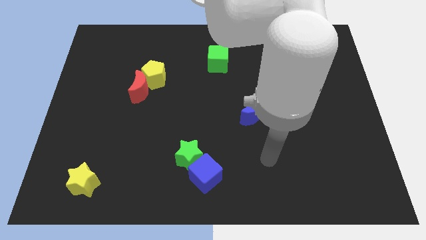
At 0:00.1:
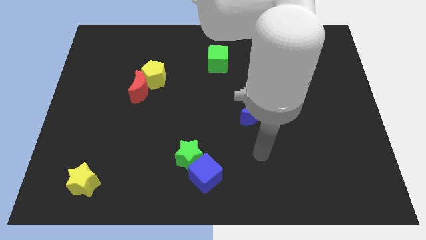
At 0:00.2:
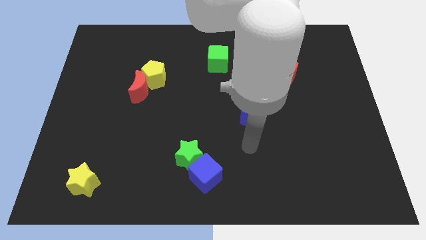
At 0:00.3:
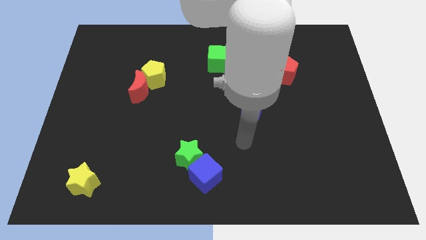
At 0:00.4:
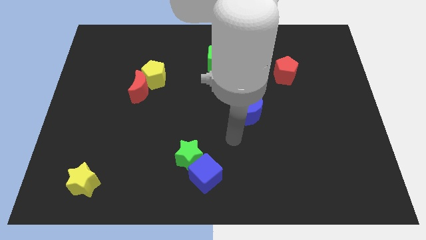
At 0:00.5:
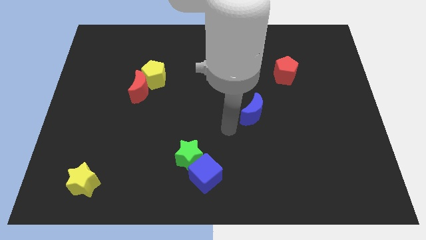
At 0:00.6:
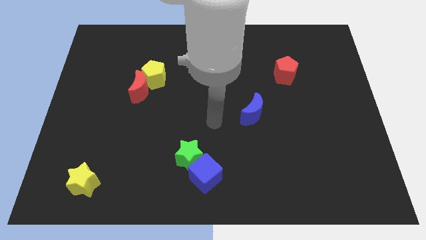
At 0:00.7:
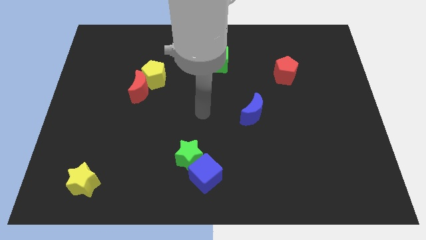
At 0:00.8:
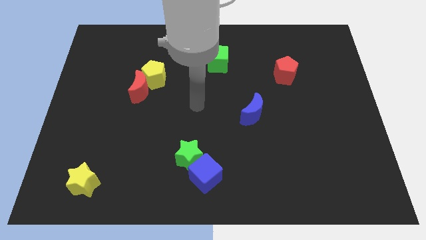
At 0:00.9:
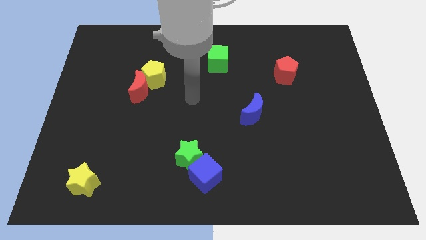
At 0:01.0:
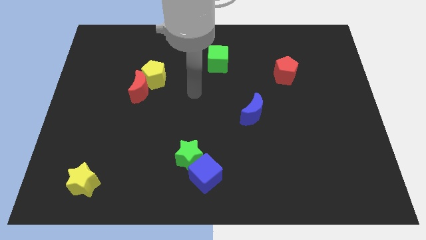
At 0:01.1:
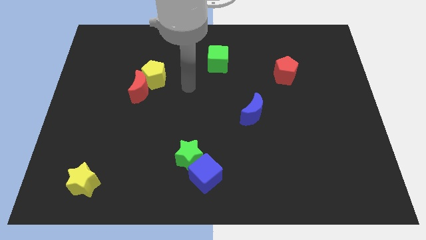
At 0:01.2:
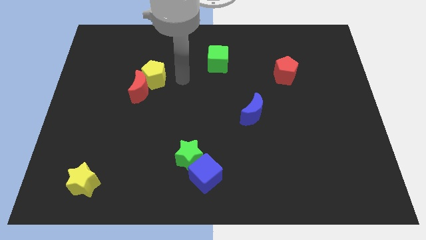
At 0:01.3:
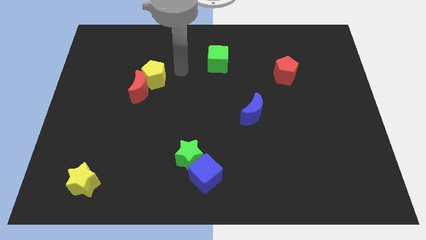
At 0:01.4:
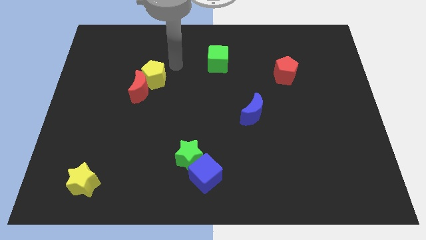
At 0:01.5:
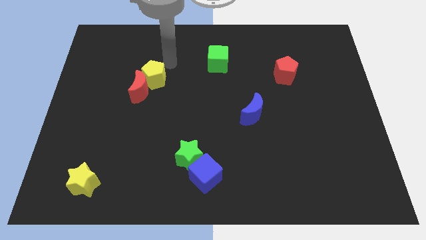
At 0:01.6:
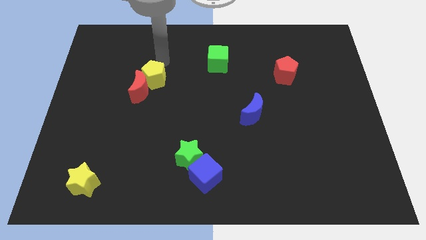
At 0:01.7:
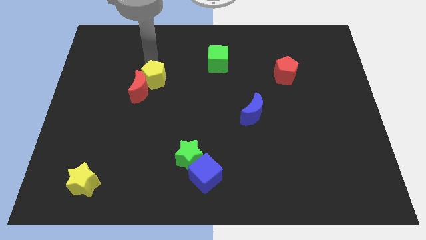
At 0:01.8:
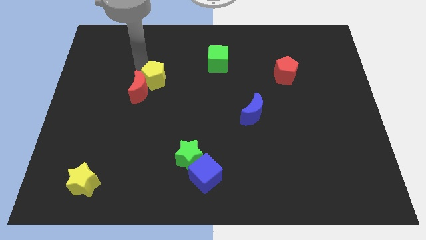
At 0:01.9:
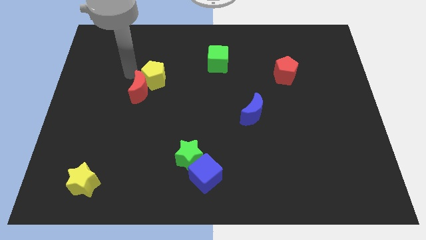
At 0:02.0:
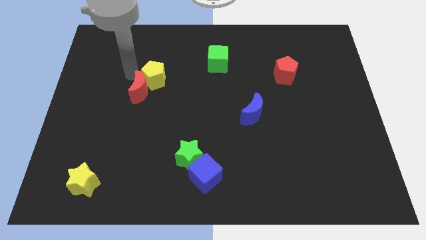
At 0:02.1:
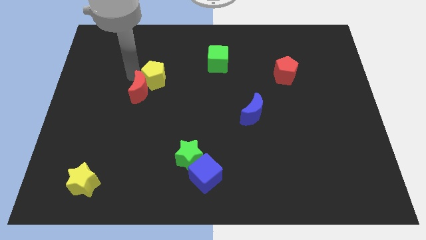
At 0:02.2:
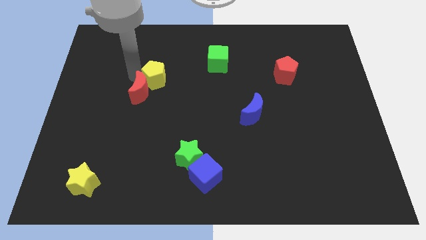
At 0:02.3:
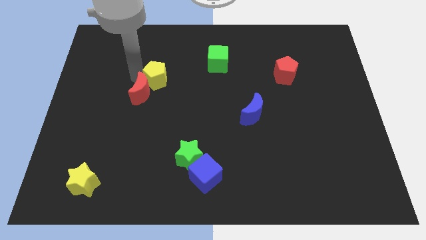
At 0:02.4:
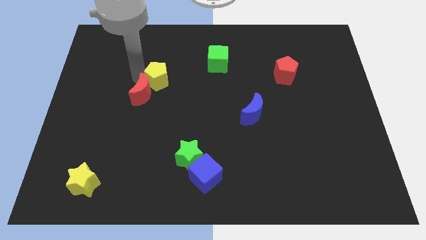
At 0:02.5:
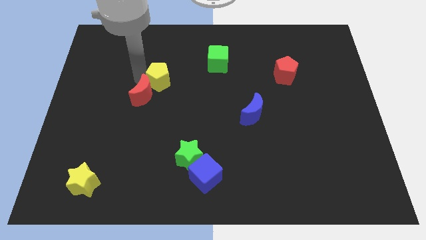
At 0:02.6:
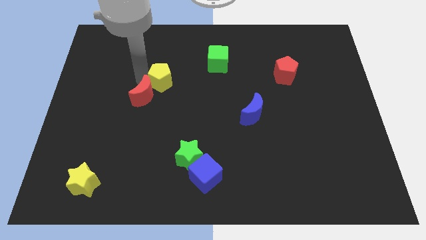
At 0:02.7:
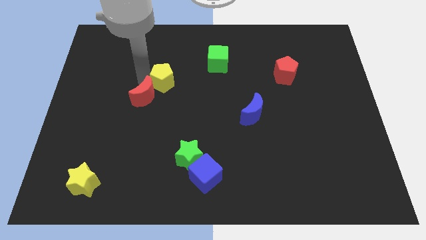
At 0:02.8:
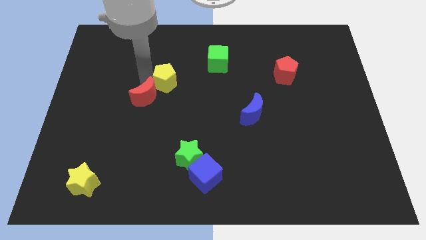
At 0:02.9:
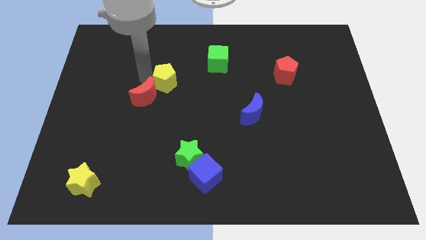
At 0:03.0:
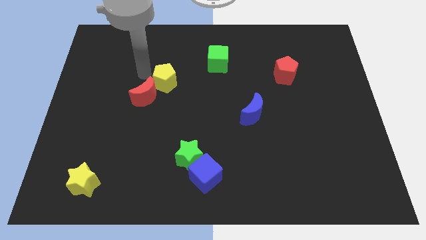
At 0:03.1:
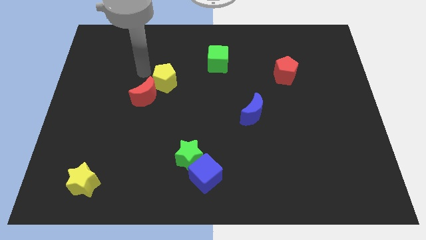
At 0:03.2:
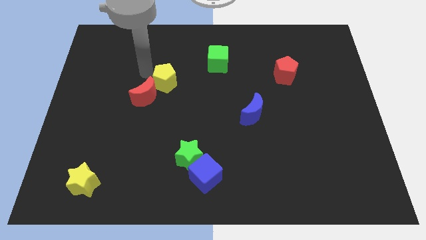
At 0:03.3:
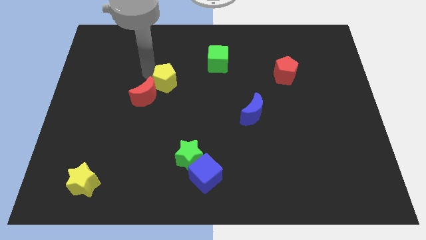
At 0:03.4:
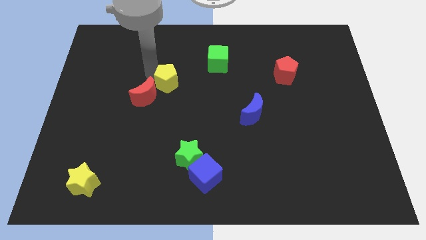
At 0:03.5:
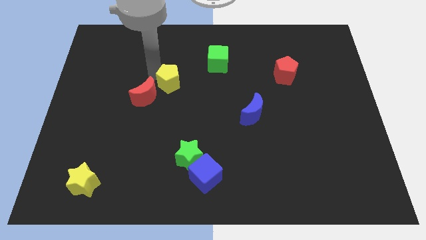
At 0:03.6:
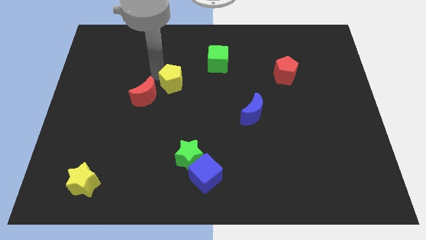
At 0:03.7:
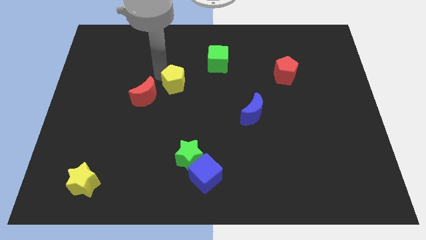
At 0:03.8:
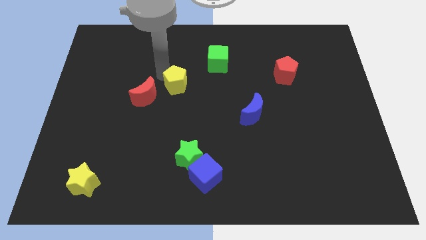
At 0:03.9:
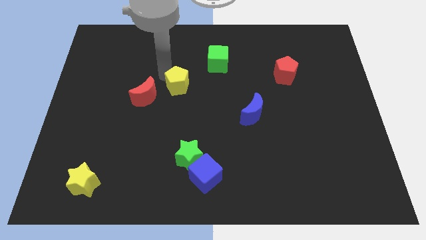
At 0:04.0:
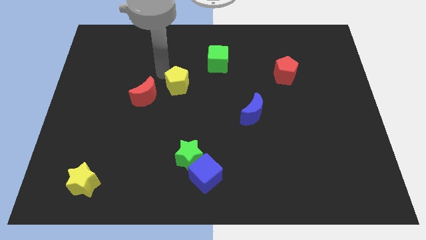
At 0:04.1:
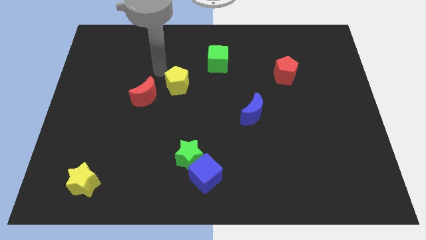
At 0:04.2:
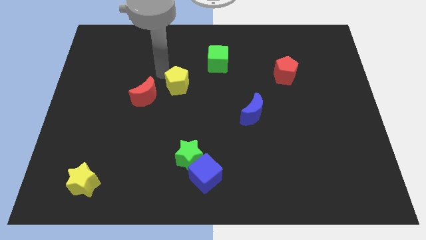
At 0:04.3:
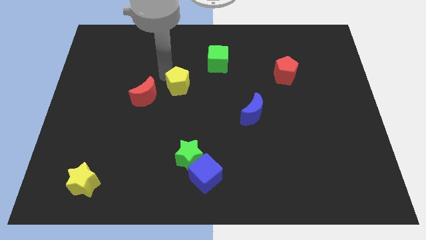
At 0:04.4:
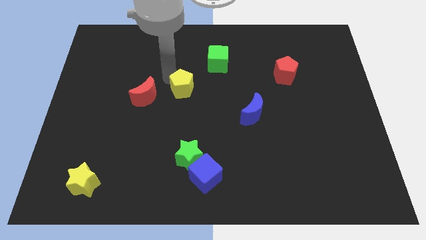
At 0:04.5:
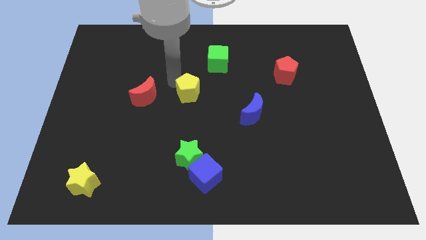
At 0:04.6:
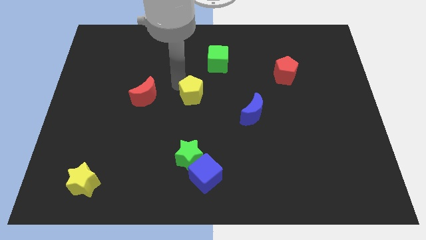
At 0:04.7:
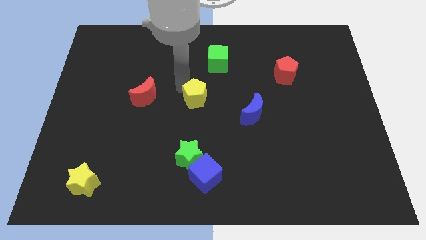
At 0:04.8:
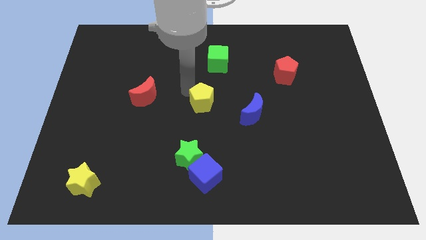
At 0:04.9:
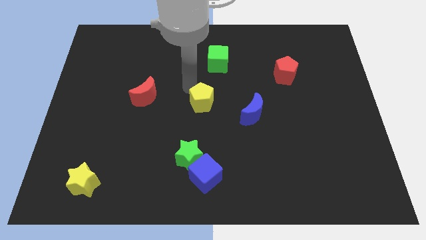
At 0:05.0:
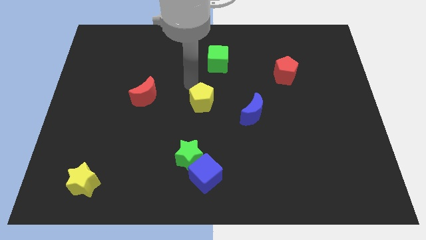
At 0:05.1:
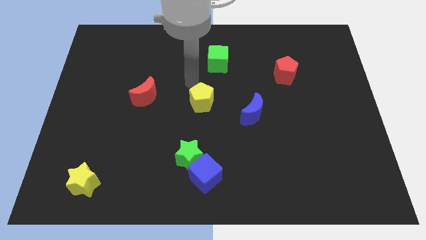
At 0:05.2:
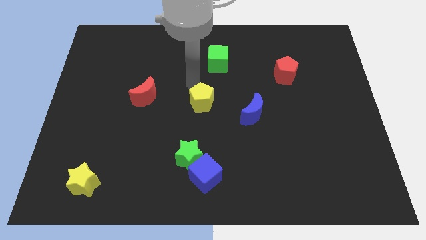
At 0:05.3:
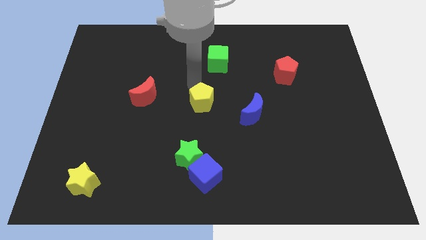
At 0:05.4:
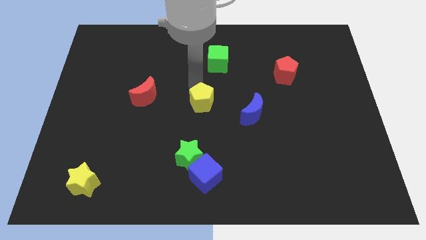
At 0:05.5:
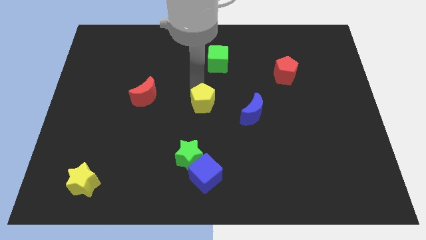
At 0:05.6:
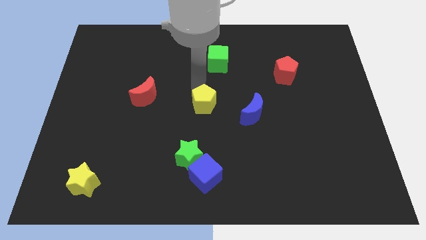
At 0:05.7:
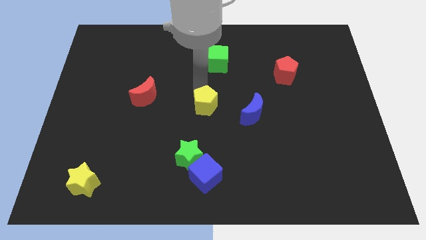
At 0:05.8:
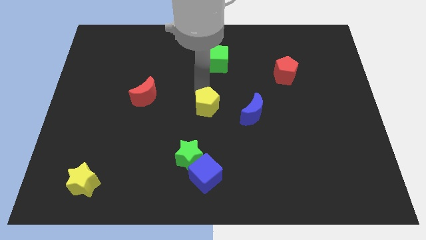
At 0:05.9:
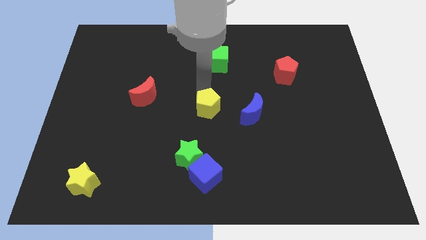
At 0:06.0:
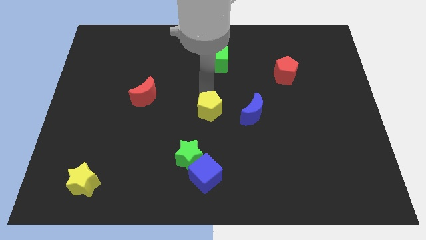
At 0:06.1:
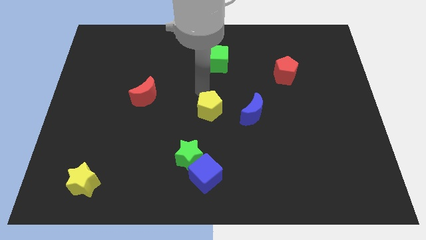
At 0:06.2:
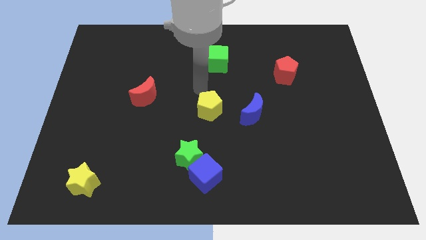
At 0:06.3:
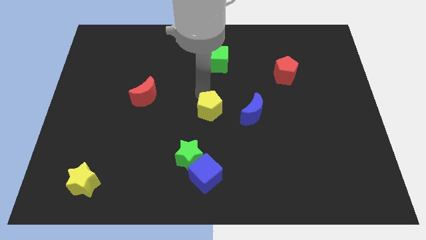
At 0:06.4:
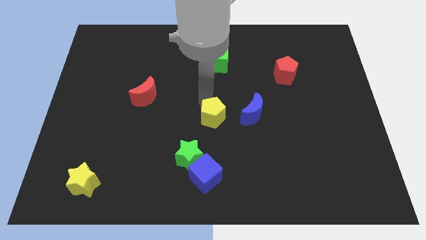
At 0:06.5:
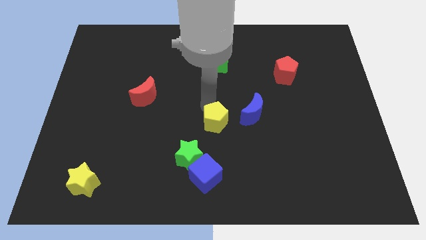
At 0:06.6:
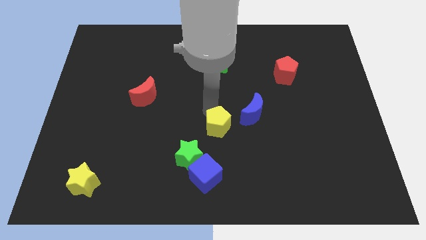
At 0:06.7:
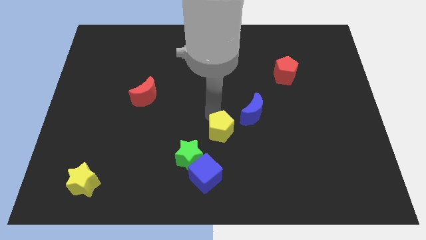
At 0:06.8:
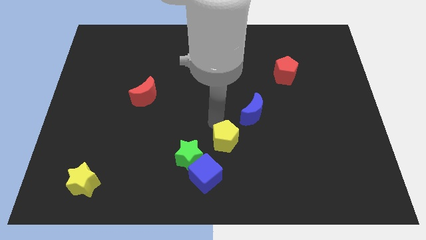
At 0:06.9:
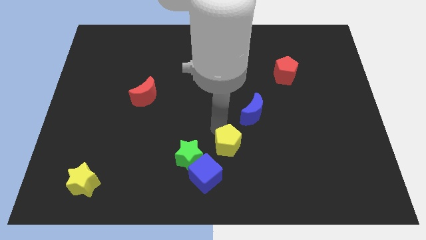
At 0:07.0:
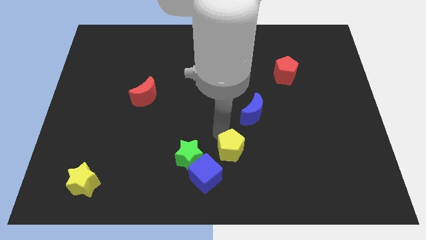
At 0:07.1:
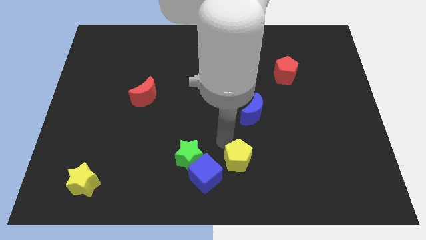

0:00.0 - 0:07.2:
slide the yellow pentagon to the right of the blue cube
